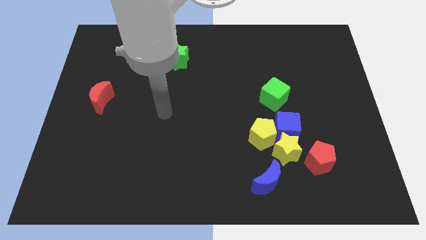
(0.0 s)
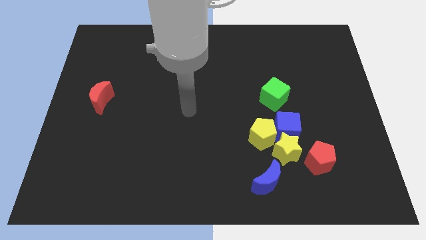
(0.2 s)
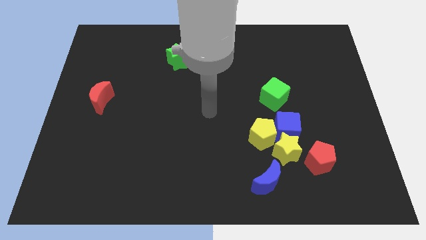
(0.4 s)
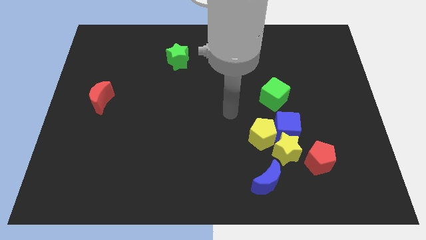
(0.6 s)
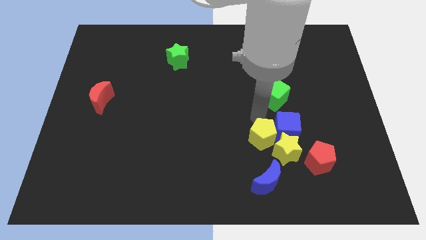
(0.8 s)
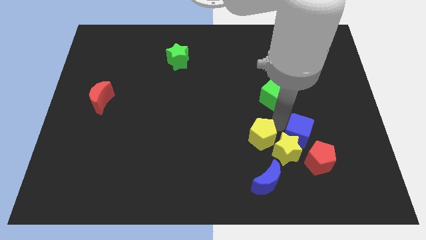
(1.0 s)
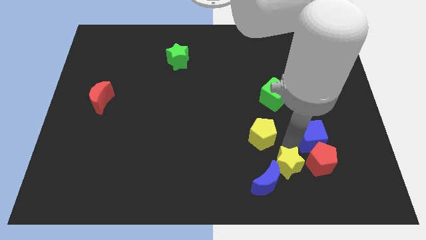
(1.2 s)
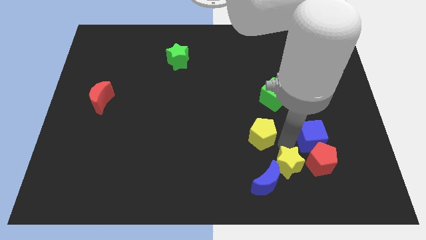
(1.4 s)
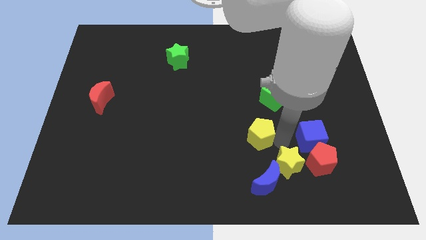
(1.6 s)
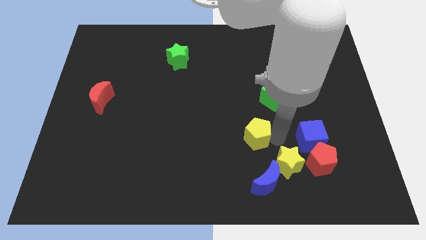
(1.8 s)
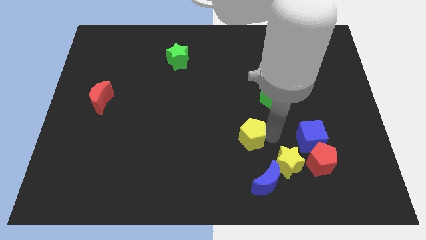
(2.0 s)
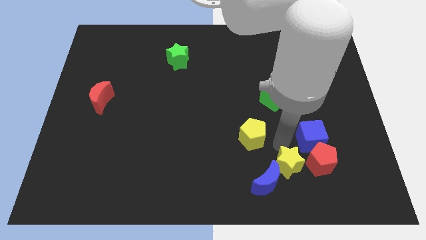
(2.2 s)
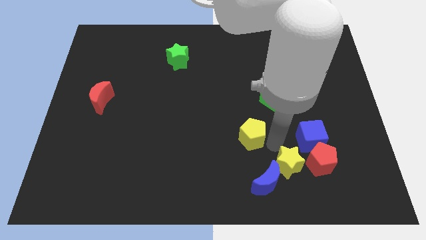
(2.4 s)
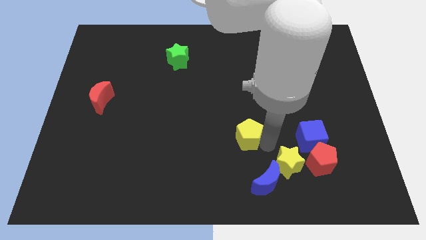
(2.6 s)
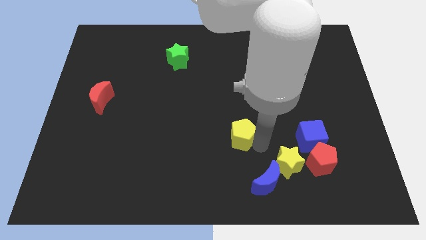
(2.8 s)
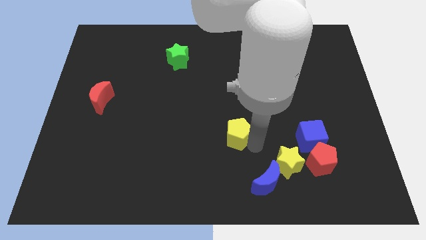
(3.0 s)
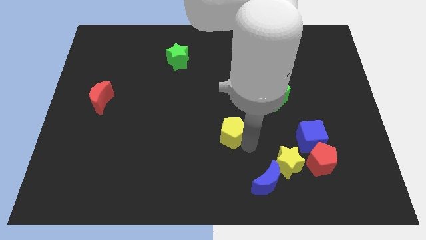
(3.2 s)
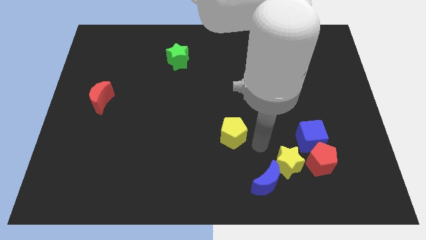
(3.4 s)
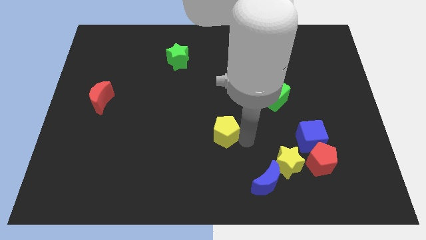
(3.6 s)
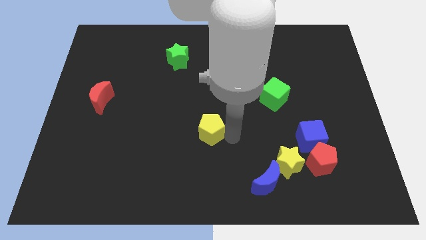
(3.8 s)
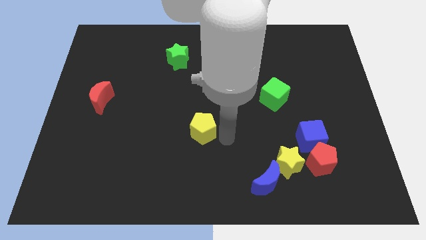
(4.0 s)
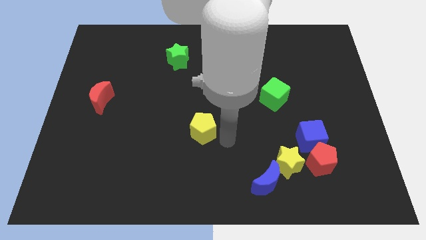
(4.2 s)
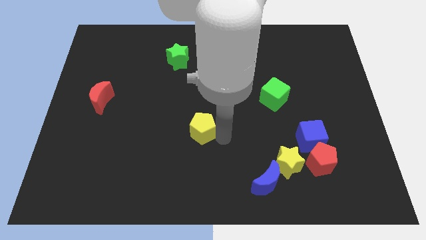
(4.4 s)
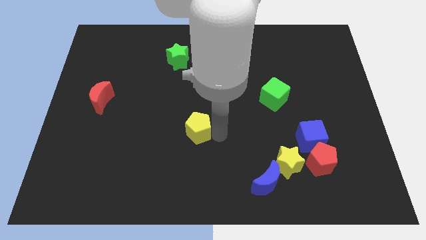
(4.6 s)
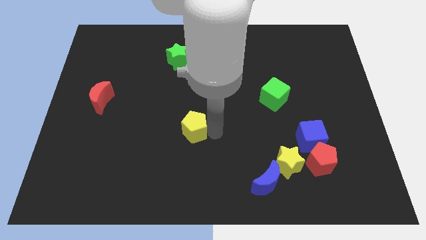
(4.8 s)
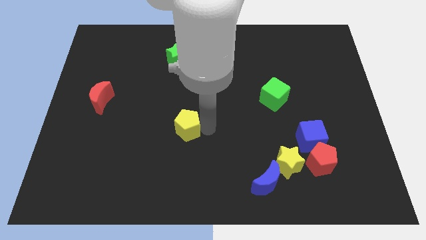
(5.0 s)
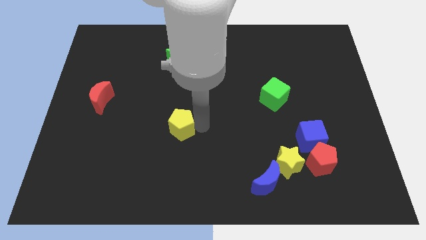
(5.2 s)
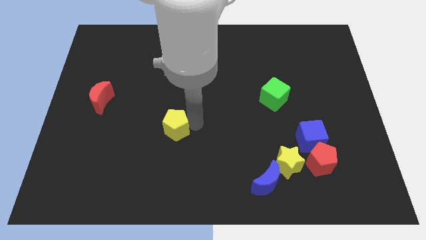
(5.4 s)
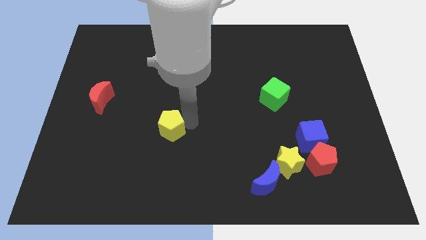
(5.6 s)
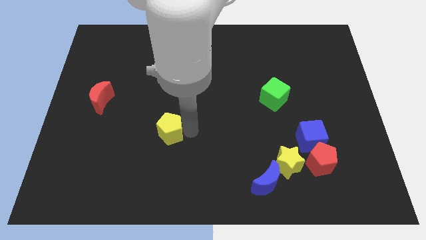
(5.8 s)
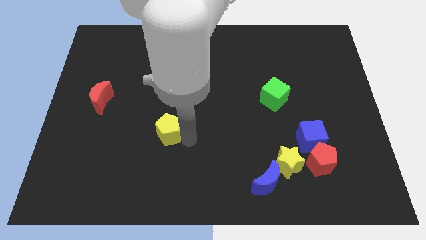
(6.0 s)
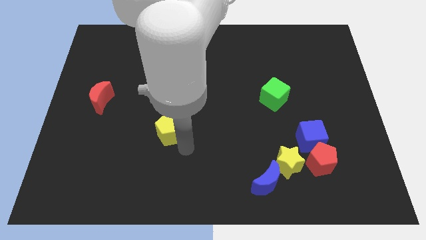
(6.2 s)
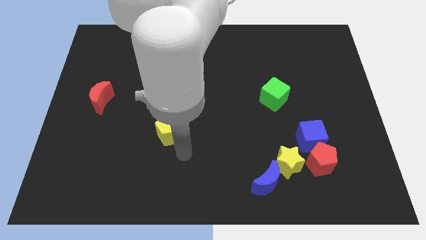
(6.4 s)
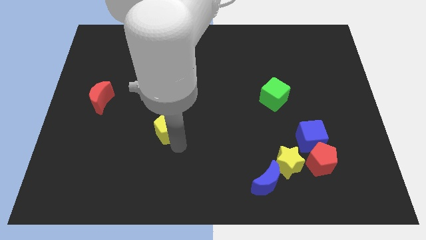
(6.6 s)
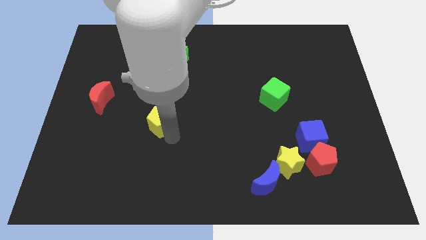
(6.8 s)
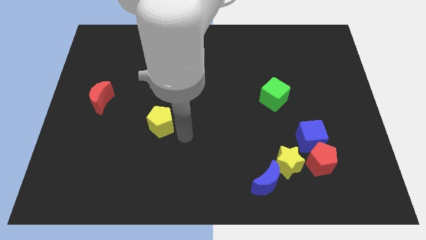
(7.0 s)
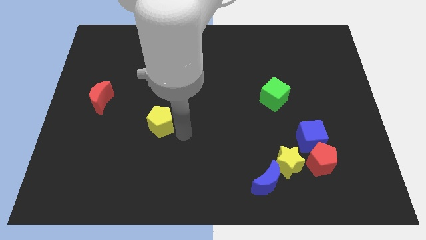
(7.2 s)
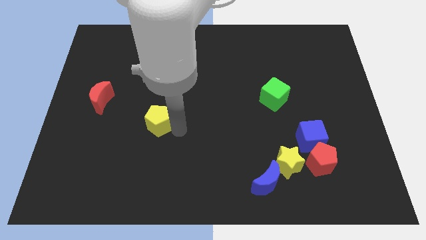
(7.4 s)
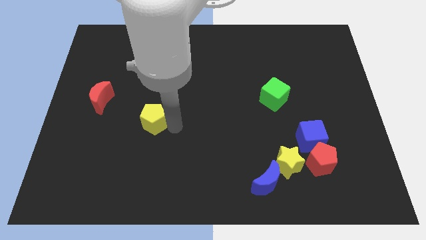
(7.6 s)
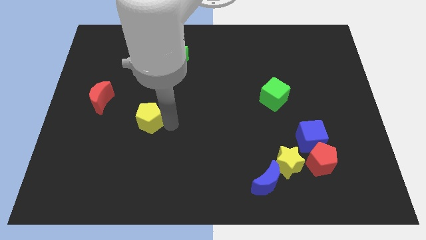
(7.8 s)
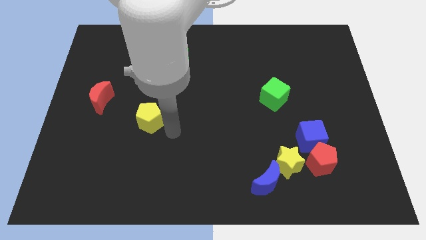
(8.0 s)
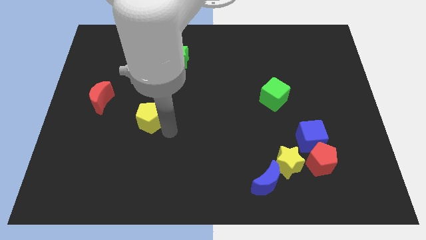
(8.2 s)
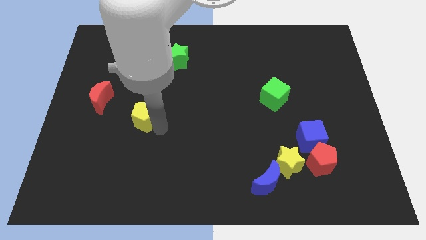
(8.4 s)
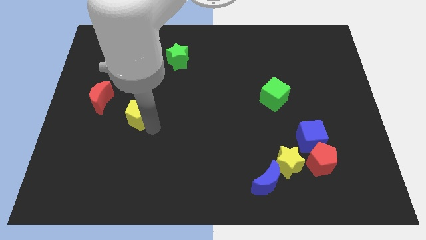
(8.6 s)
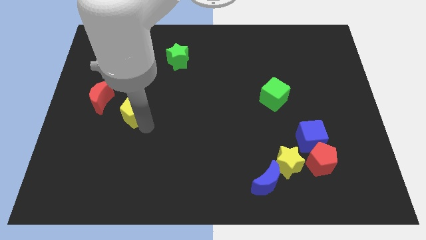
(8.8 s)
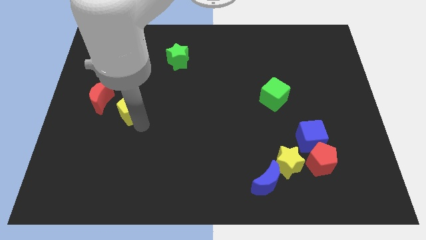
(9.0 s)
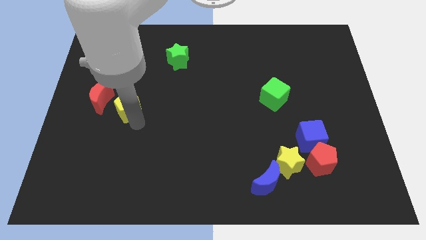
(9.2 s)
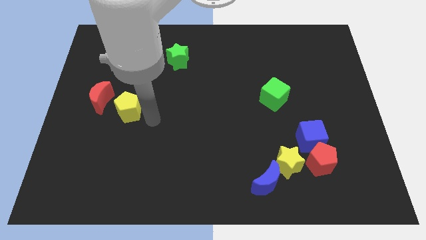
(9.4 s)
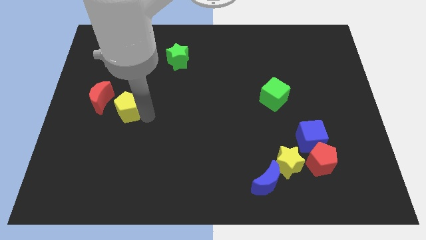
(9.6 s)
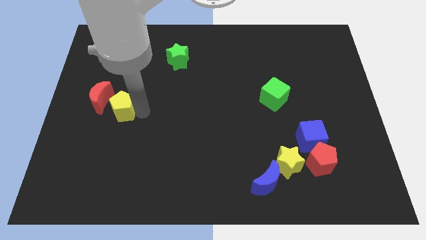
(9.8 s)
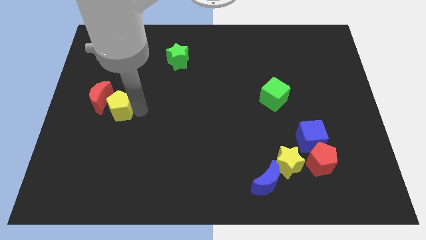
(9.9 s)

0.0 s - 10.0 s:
move the yellow pentagon towards the red moon

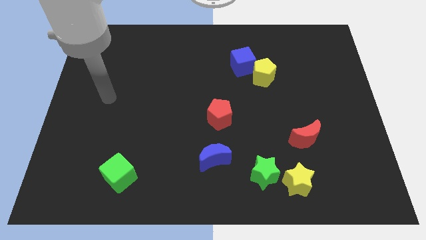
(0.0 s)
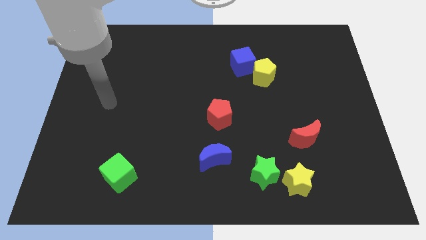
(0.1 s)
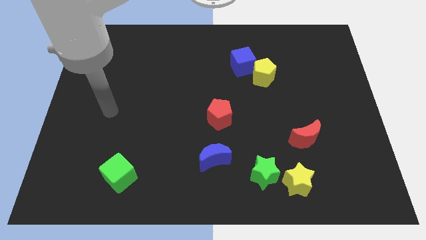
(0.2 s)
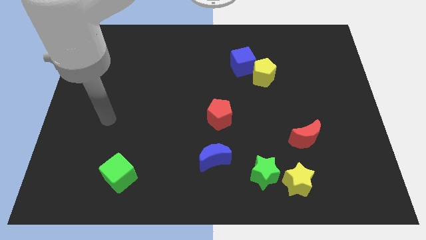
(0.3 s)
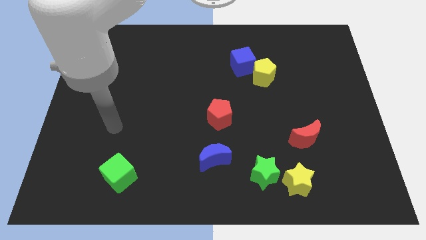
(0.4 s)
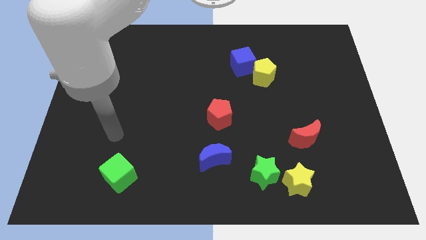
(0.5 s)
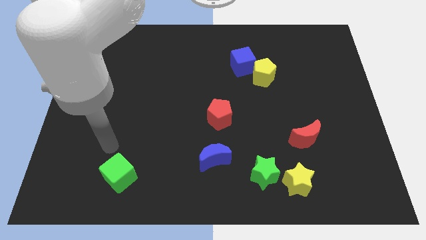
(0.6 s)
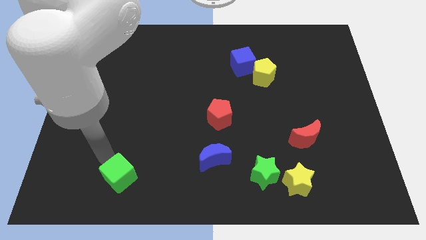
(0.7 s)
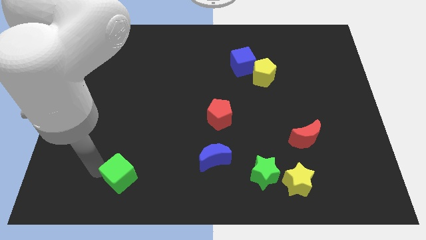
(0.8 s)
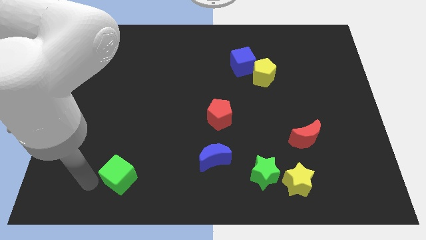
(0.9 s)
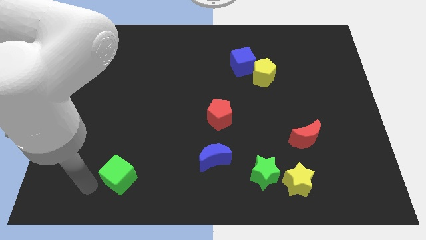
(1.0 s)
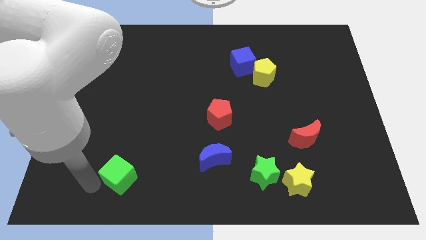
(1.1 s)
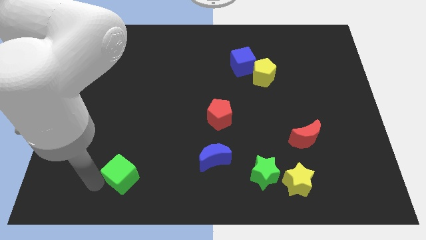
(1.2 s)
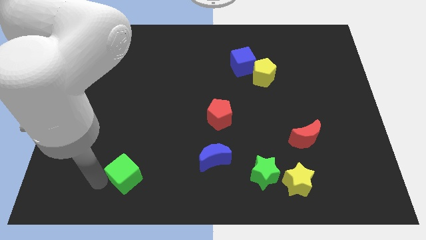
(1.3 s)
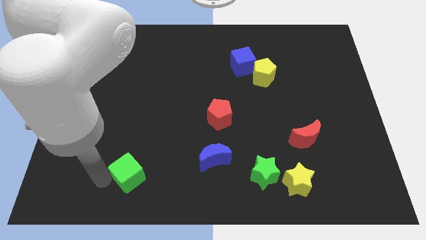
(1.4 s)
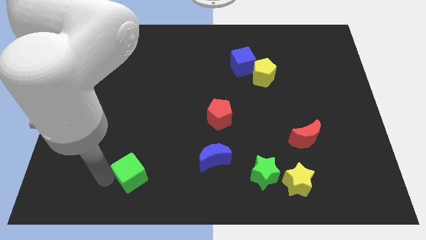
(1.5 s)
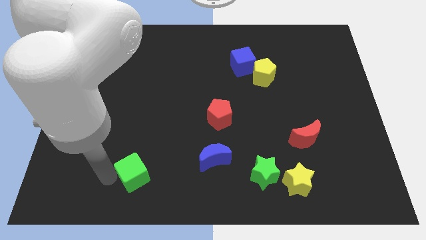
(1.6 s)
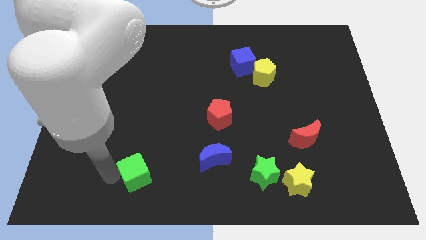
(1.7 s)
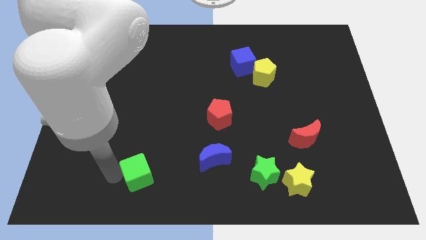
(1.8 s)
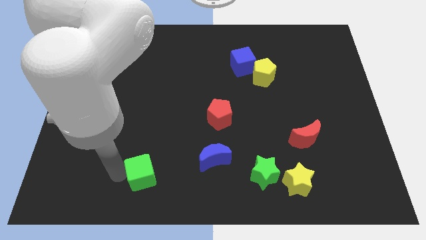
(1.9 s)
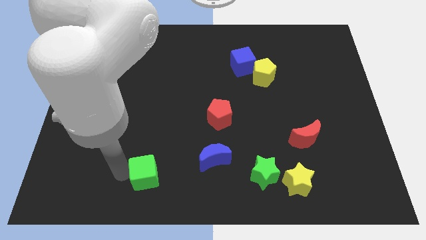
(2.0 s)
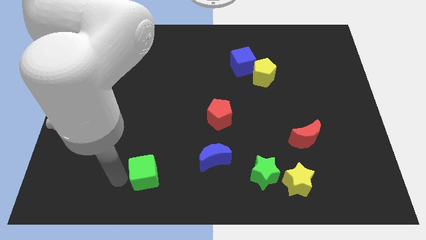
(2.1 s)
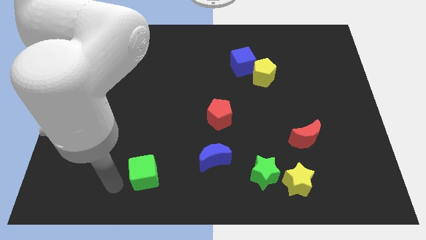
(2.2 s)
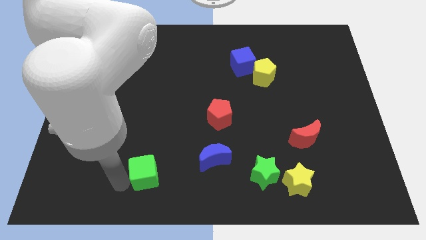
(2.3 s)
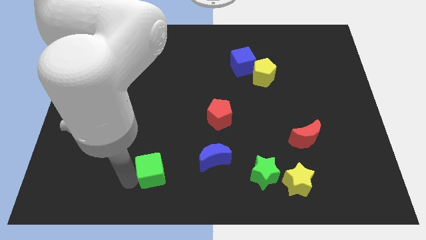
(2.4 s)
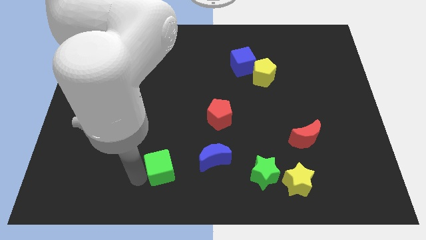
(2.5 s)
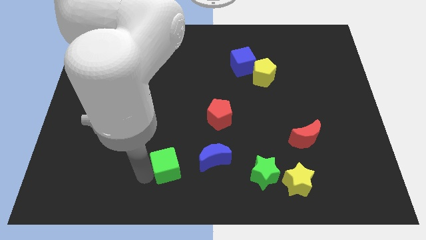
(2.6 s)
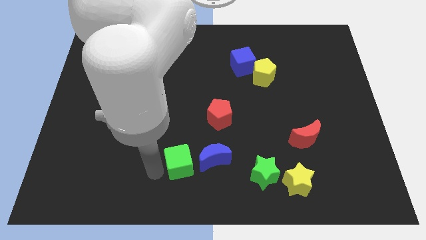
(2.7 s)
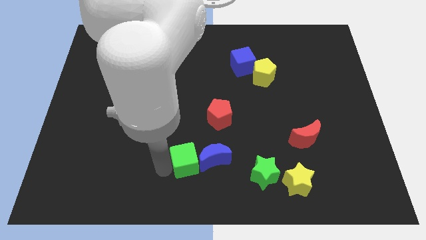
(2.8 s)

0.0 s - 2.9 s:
move the green cube close to the blue moon
